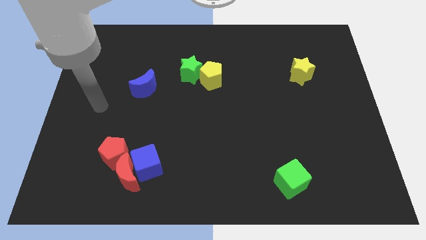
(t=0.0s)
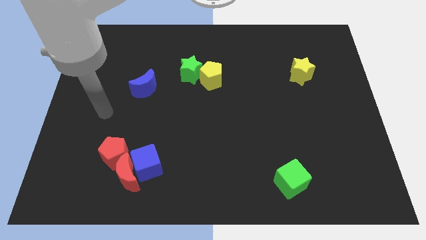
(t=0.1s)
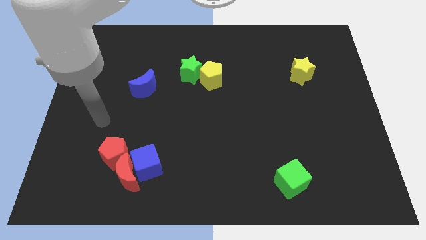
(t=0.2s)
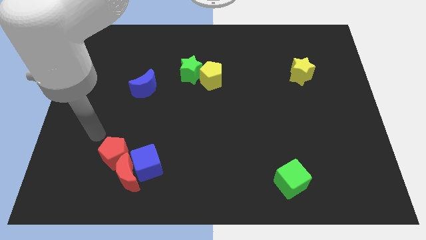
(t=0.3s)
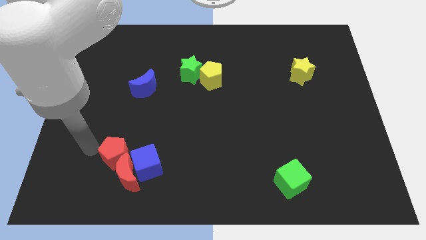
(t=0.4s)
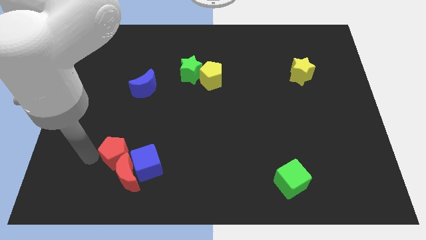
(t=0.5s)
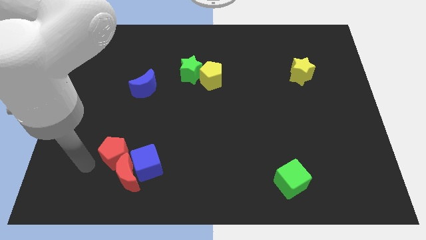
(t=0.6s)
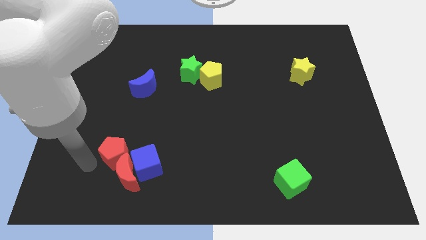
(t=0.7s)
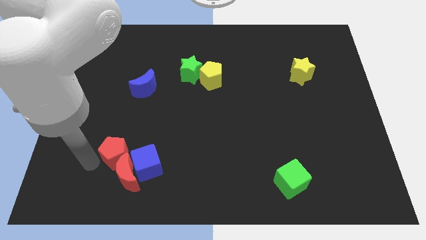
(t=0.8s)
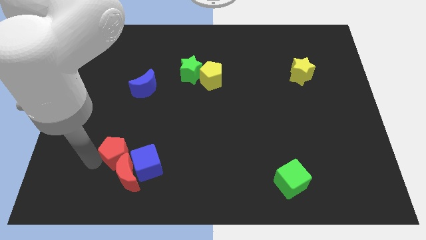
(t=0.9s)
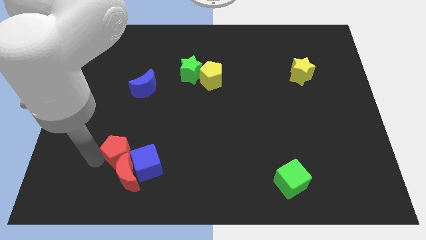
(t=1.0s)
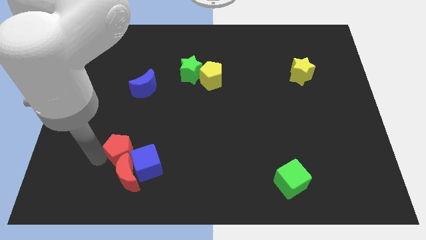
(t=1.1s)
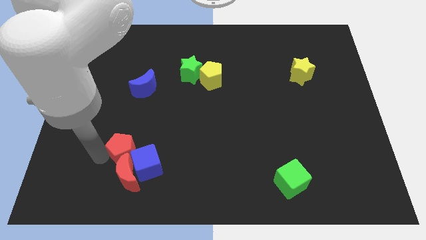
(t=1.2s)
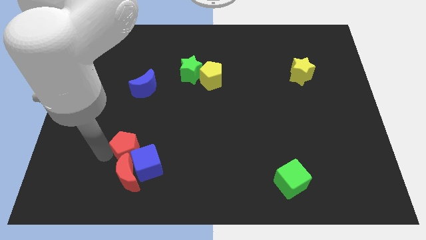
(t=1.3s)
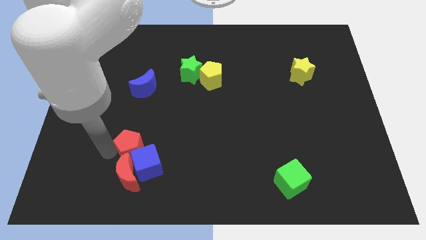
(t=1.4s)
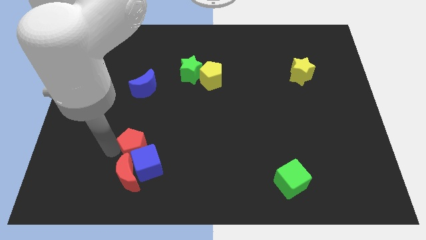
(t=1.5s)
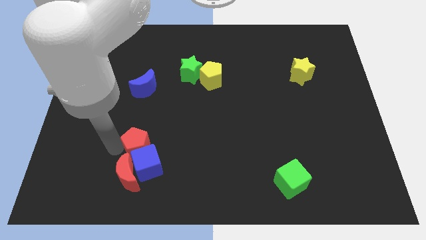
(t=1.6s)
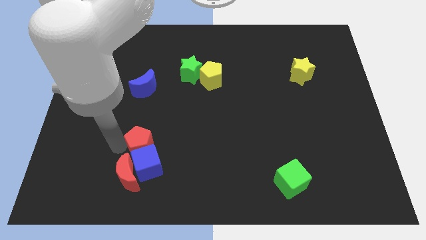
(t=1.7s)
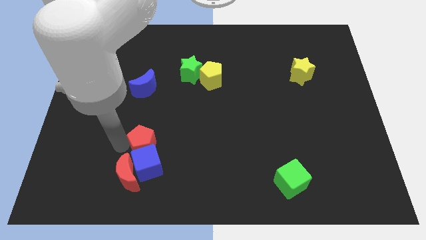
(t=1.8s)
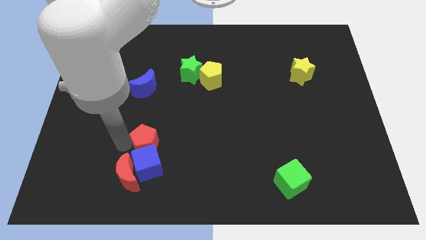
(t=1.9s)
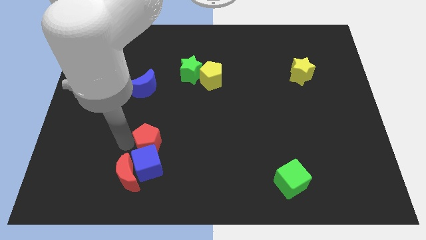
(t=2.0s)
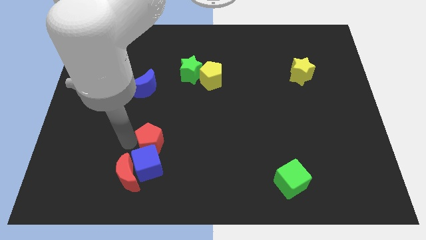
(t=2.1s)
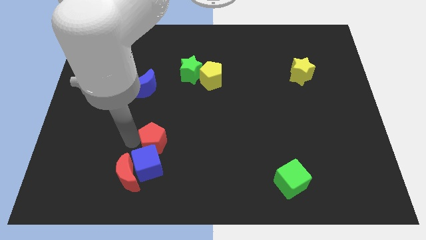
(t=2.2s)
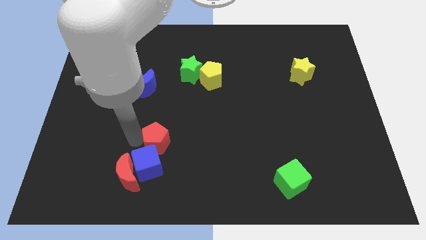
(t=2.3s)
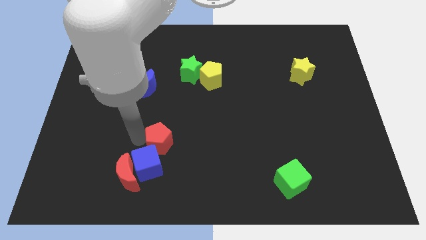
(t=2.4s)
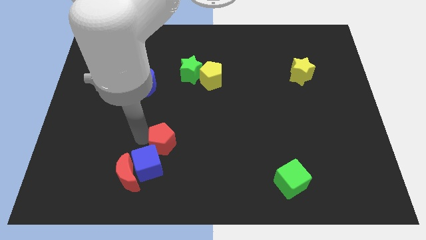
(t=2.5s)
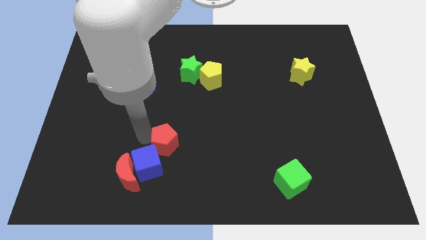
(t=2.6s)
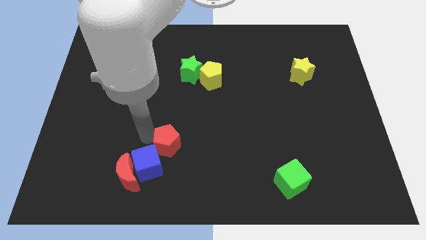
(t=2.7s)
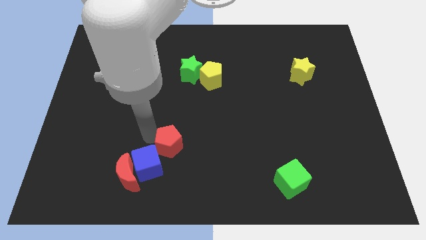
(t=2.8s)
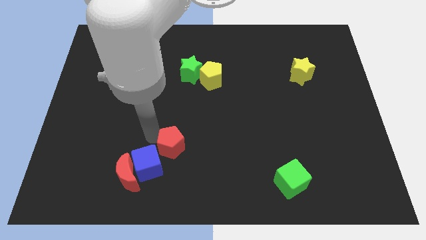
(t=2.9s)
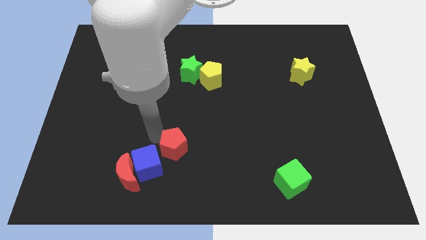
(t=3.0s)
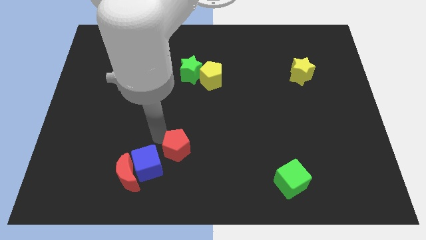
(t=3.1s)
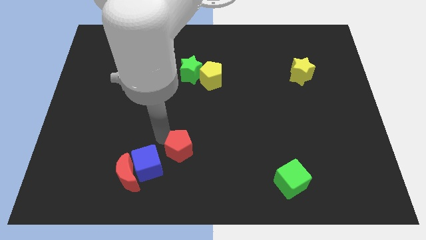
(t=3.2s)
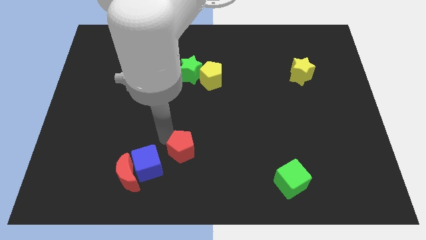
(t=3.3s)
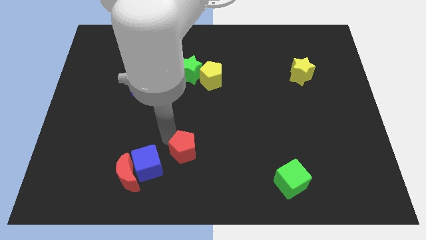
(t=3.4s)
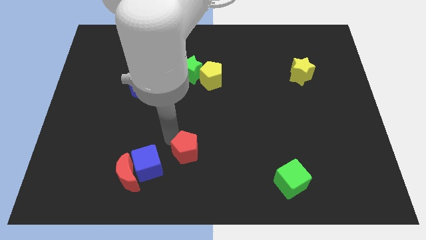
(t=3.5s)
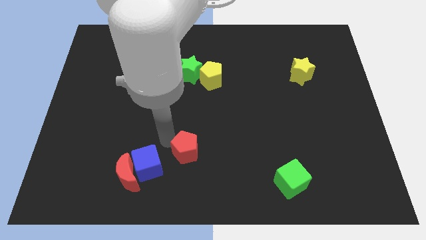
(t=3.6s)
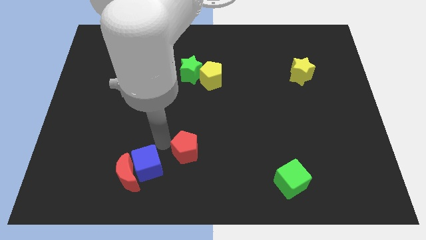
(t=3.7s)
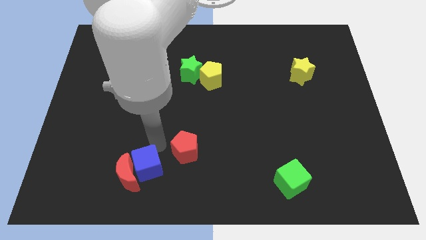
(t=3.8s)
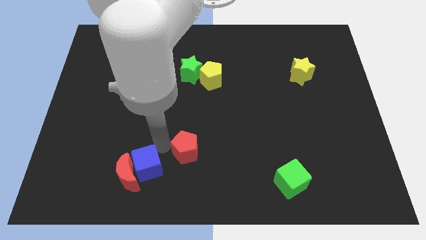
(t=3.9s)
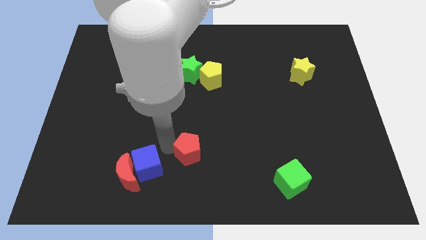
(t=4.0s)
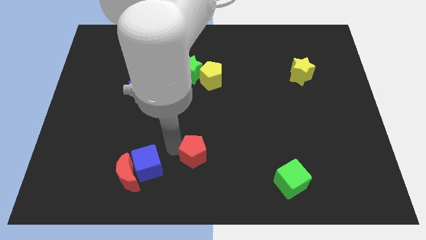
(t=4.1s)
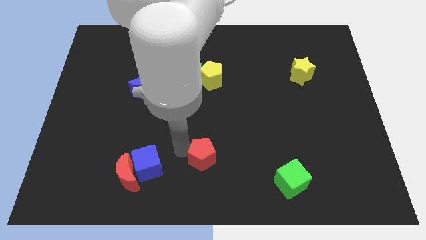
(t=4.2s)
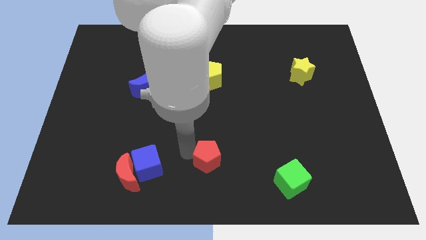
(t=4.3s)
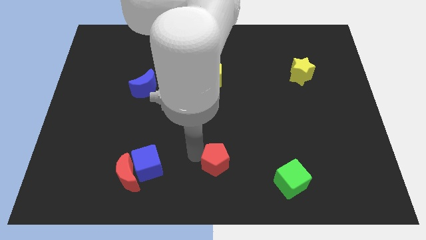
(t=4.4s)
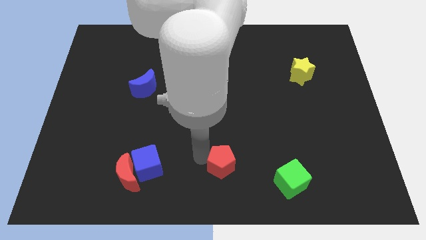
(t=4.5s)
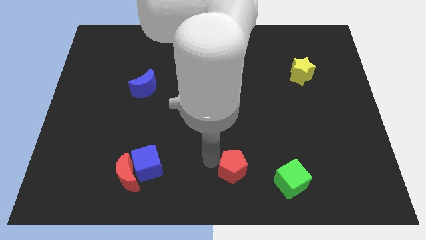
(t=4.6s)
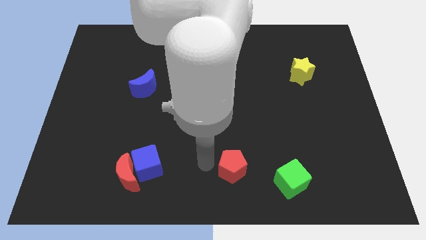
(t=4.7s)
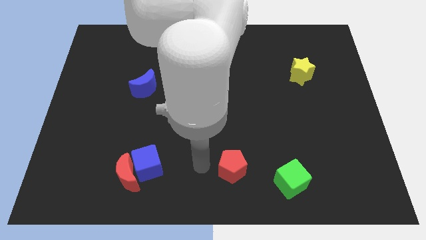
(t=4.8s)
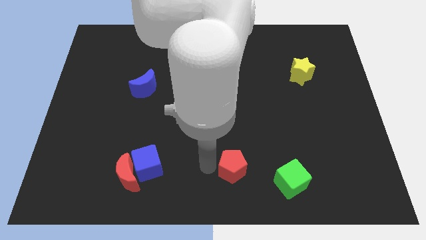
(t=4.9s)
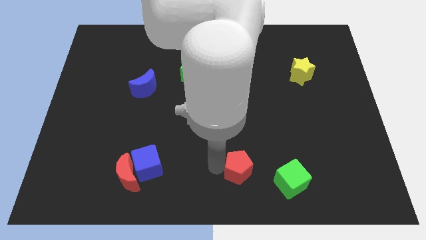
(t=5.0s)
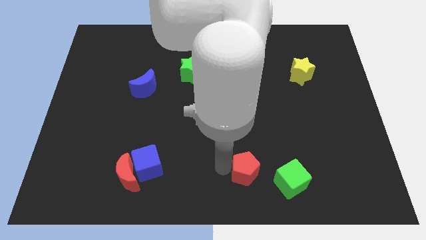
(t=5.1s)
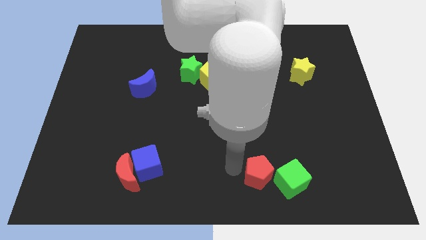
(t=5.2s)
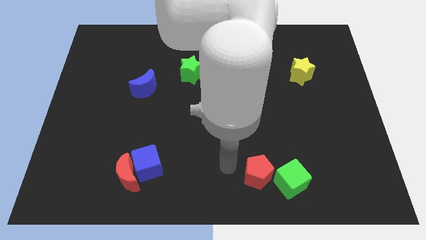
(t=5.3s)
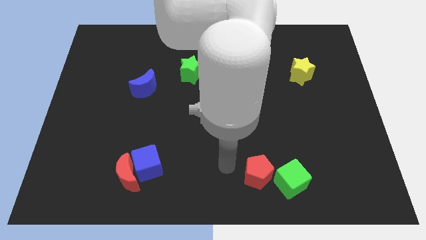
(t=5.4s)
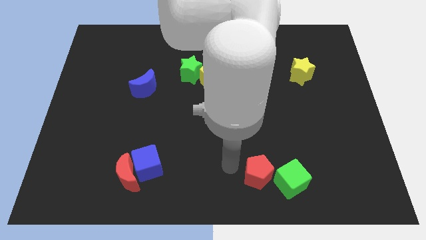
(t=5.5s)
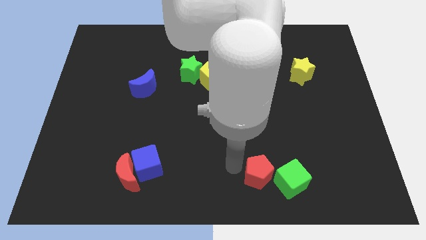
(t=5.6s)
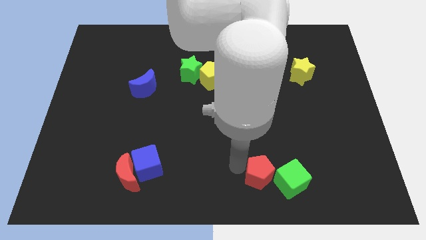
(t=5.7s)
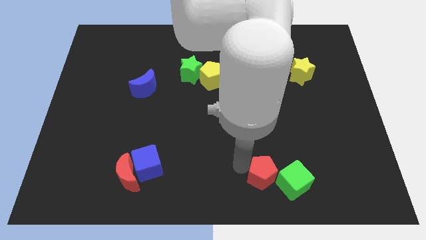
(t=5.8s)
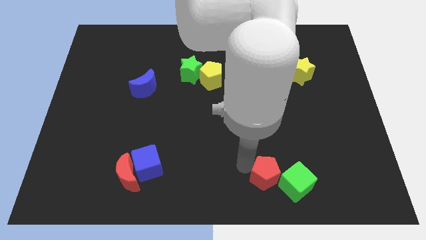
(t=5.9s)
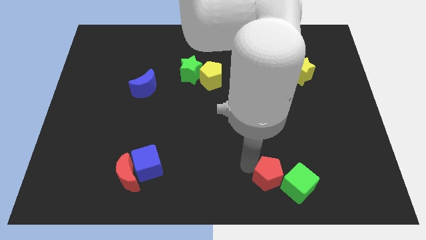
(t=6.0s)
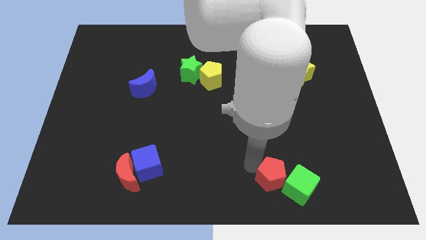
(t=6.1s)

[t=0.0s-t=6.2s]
move the red pentagon towards the green cube

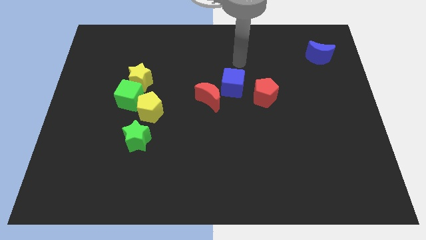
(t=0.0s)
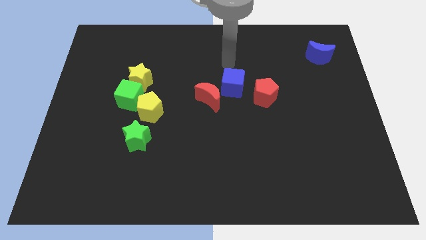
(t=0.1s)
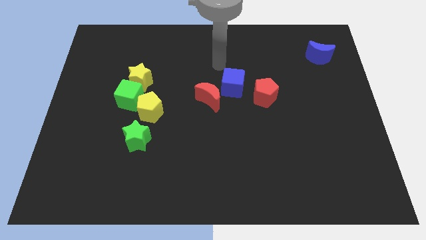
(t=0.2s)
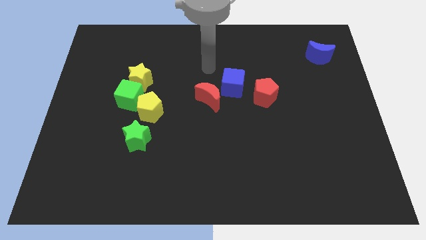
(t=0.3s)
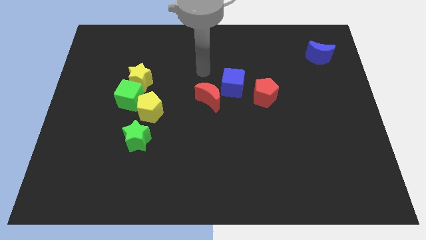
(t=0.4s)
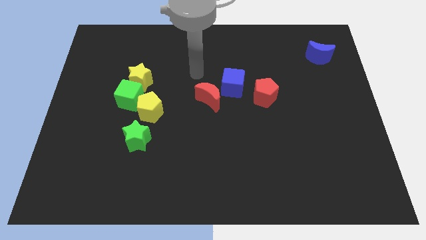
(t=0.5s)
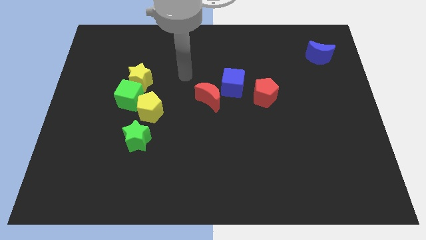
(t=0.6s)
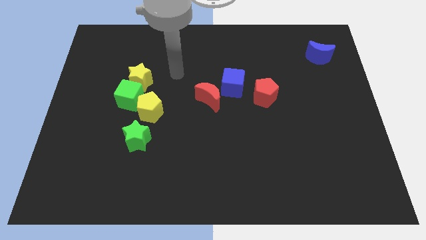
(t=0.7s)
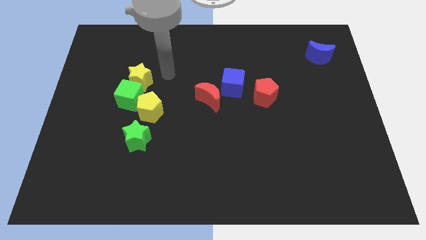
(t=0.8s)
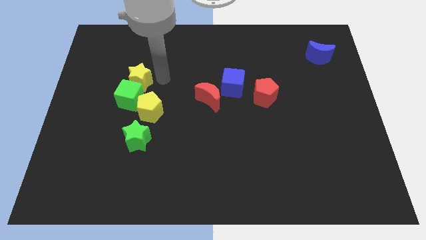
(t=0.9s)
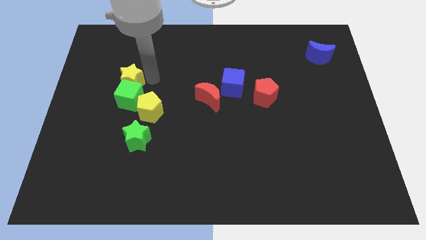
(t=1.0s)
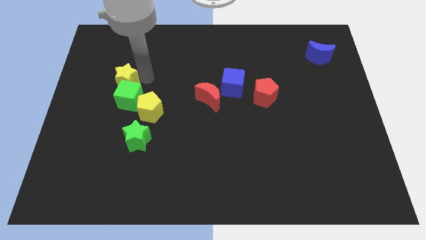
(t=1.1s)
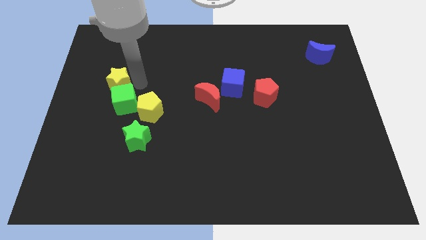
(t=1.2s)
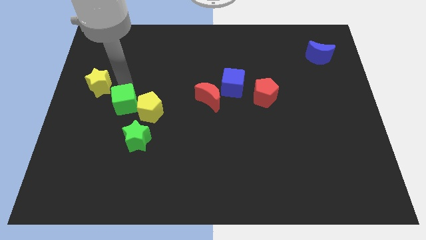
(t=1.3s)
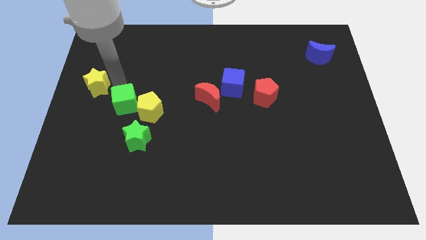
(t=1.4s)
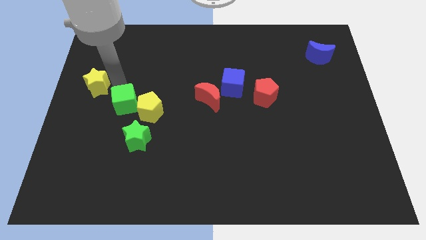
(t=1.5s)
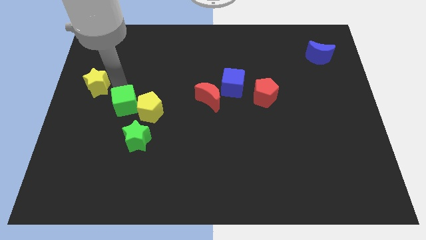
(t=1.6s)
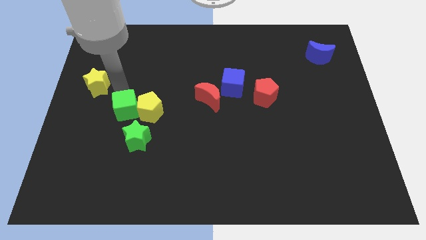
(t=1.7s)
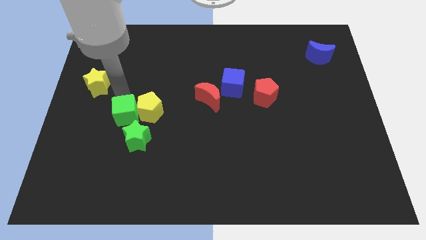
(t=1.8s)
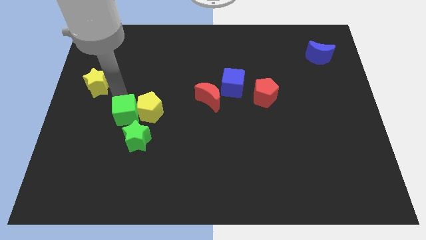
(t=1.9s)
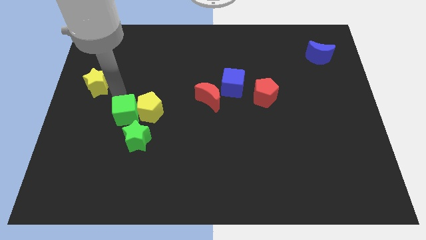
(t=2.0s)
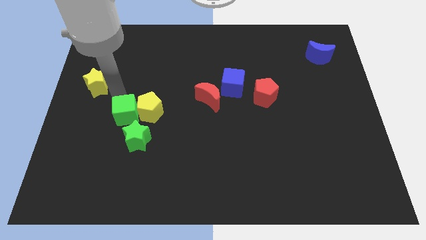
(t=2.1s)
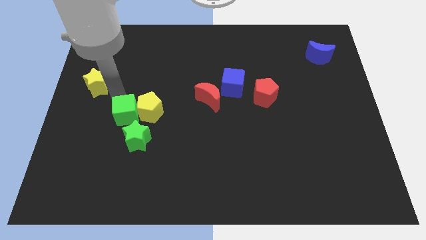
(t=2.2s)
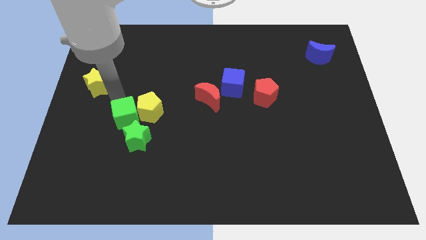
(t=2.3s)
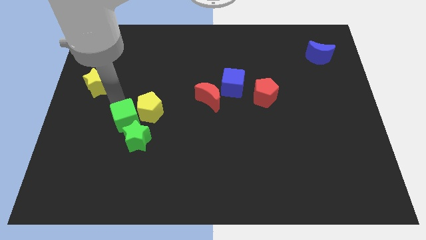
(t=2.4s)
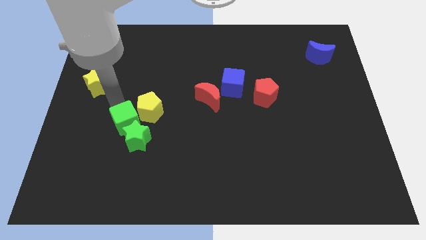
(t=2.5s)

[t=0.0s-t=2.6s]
slide the green cube close to the green star
